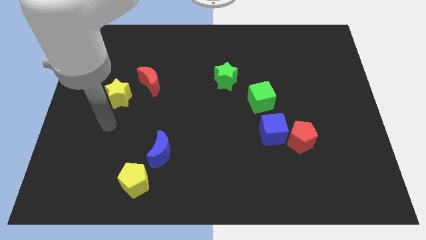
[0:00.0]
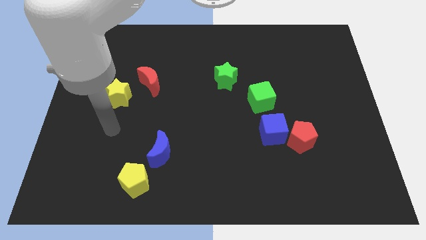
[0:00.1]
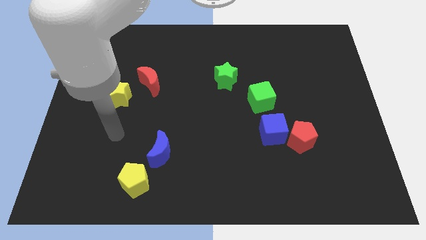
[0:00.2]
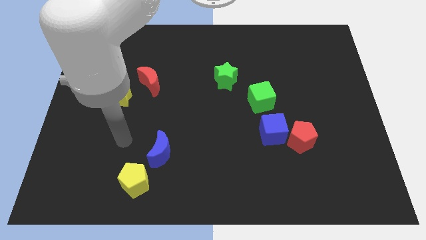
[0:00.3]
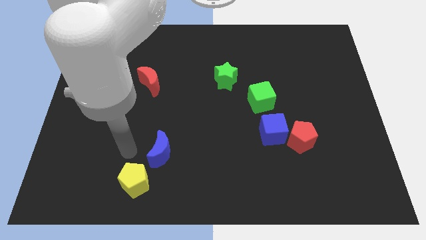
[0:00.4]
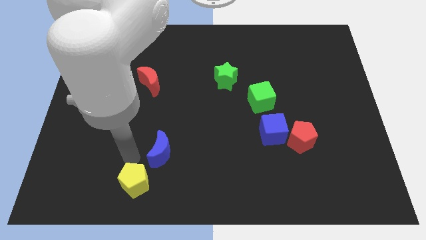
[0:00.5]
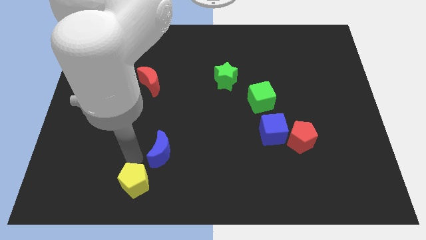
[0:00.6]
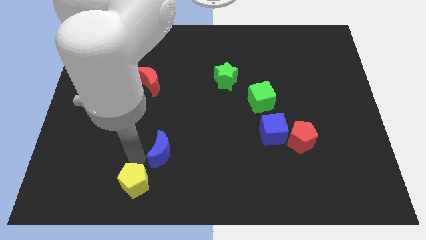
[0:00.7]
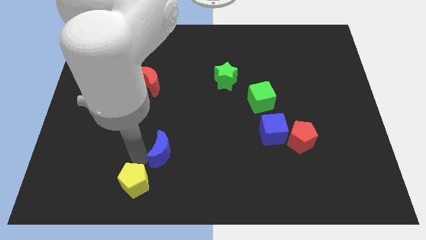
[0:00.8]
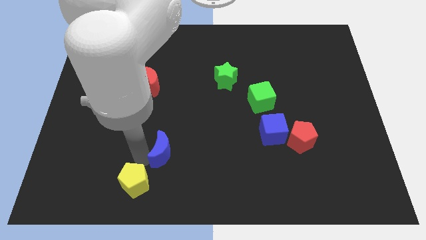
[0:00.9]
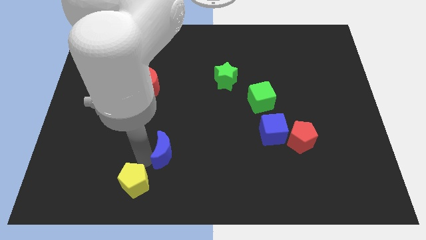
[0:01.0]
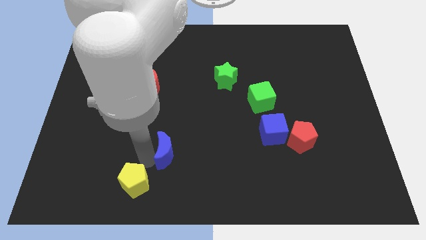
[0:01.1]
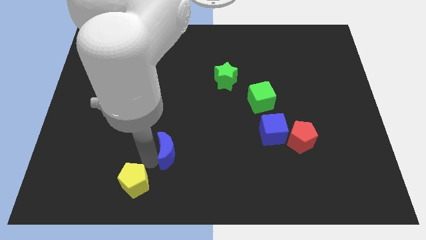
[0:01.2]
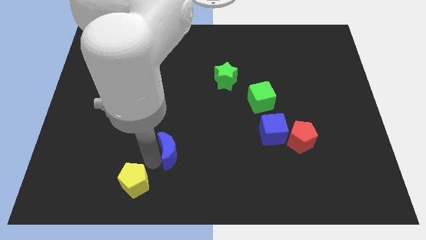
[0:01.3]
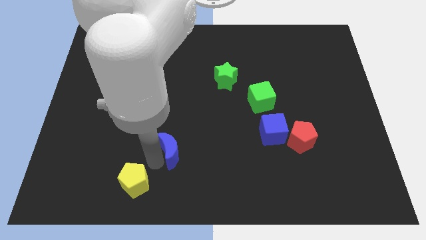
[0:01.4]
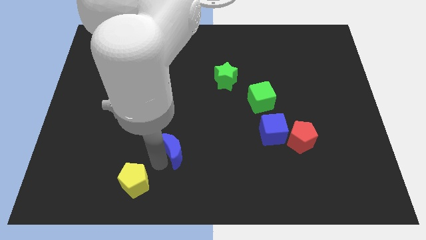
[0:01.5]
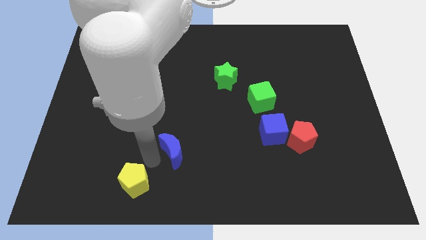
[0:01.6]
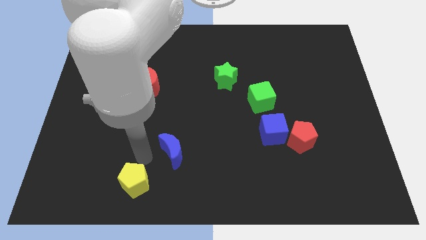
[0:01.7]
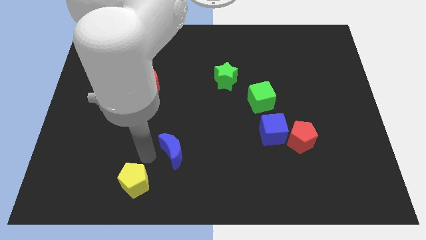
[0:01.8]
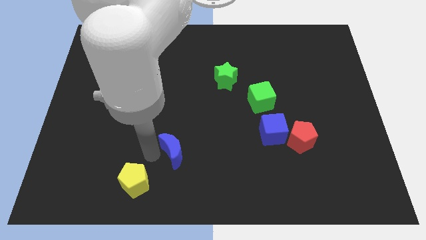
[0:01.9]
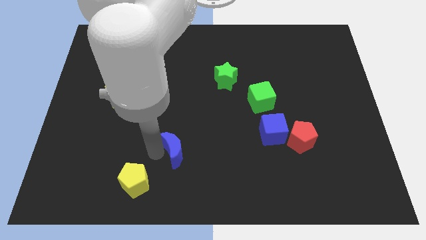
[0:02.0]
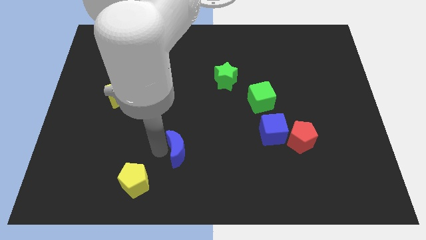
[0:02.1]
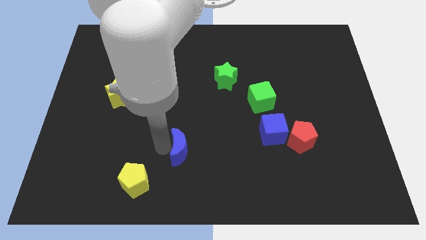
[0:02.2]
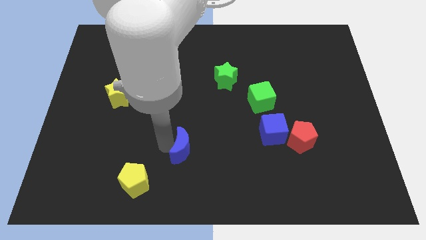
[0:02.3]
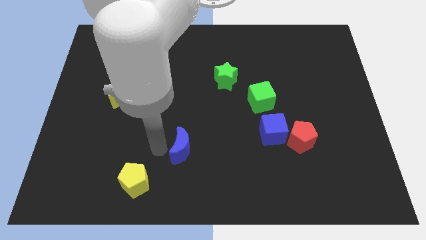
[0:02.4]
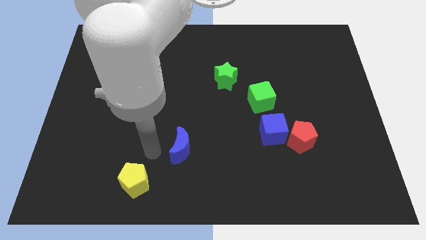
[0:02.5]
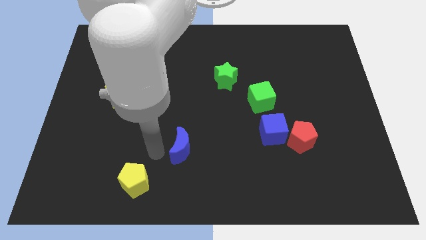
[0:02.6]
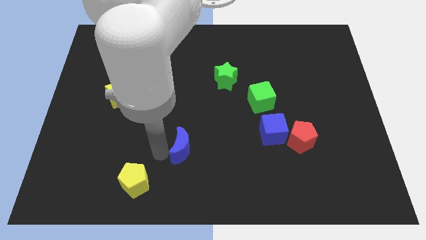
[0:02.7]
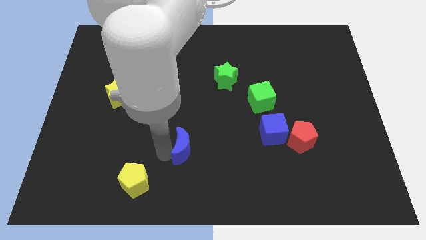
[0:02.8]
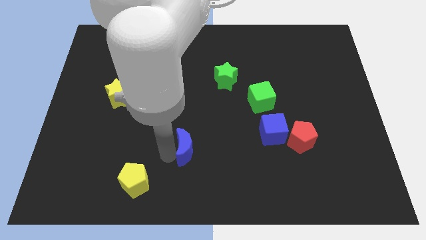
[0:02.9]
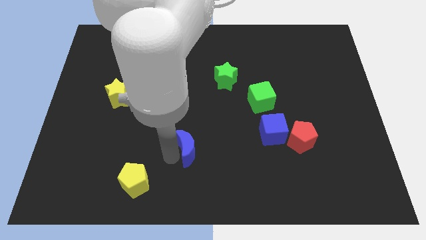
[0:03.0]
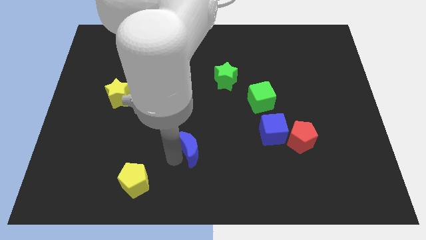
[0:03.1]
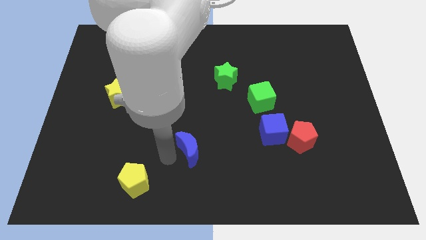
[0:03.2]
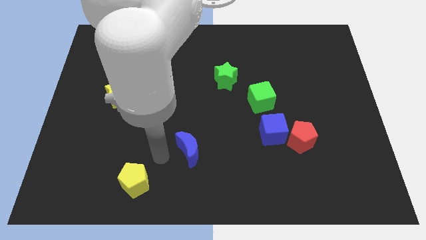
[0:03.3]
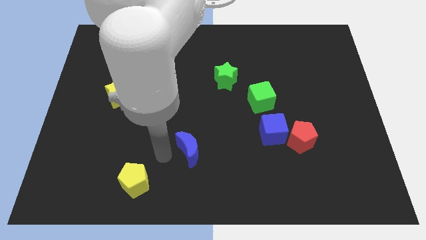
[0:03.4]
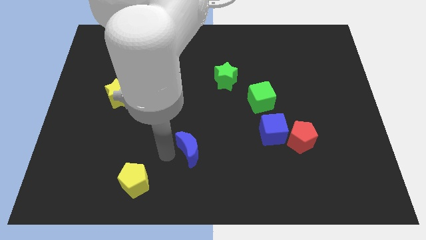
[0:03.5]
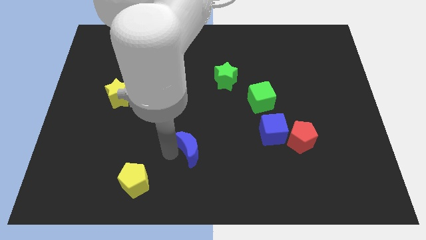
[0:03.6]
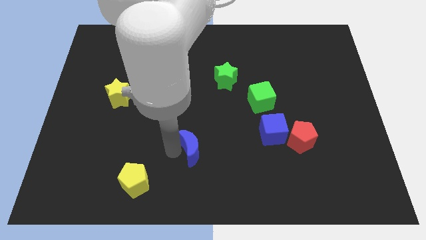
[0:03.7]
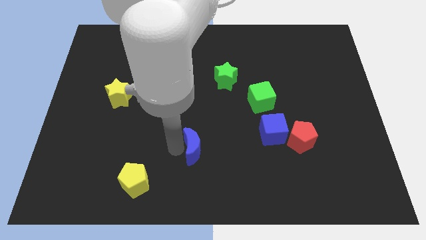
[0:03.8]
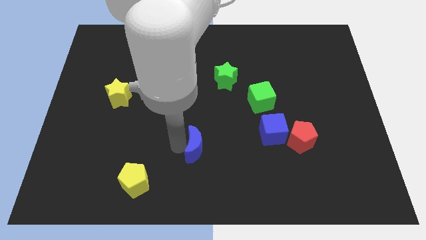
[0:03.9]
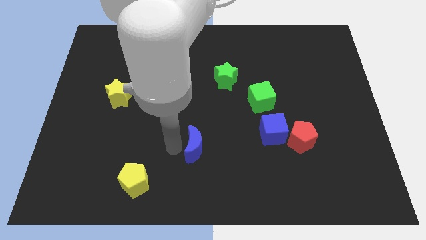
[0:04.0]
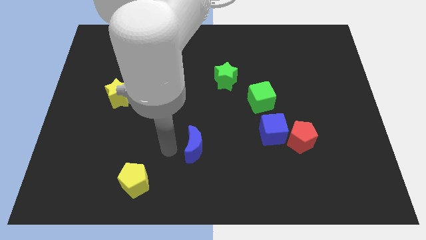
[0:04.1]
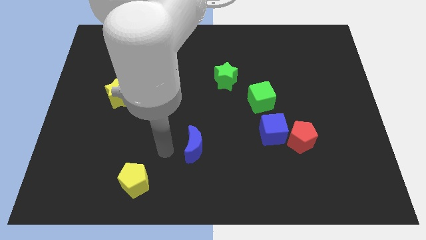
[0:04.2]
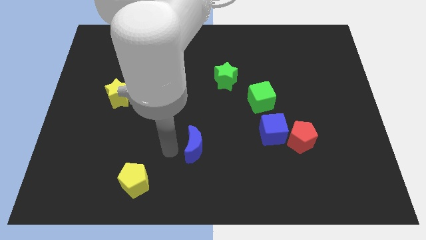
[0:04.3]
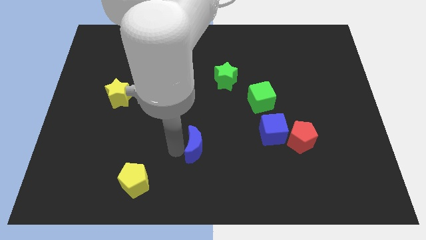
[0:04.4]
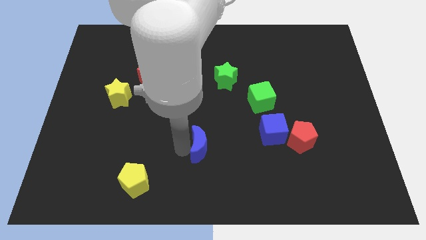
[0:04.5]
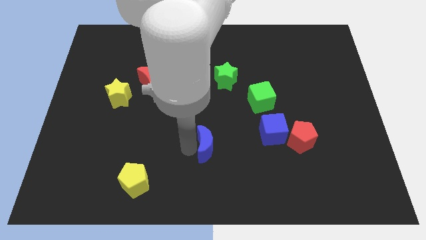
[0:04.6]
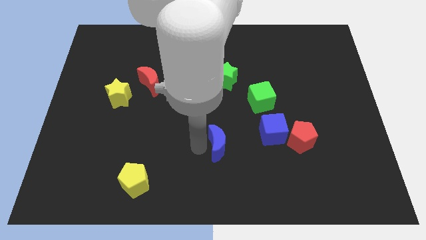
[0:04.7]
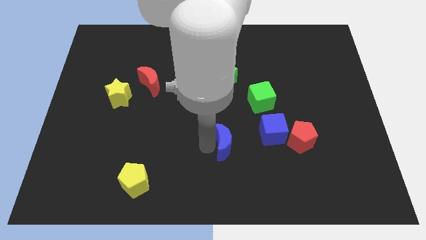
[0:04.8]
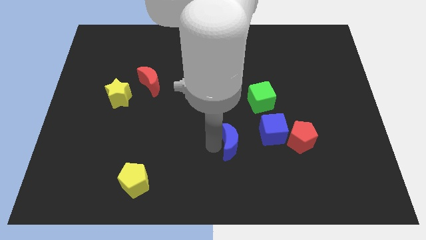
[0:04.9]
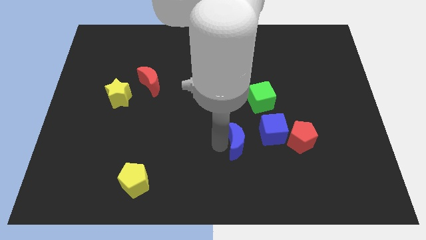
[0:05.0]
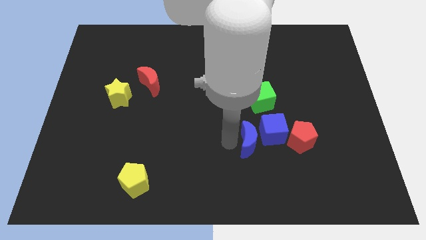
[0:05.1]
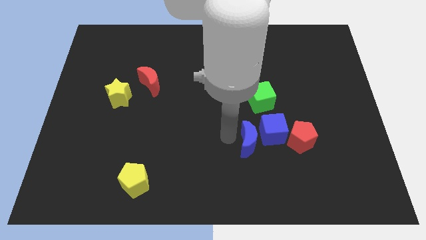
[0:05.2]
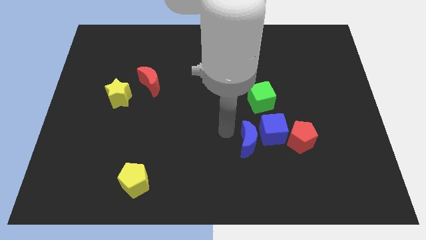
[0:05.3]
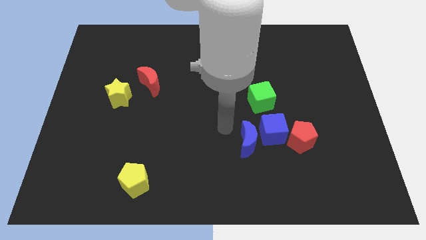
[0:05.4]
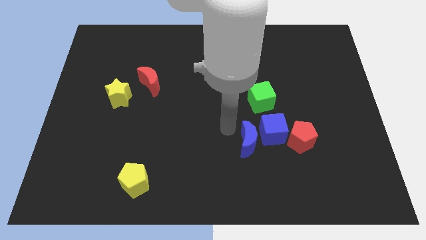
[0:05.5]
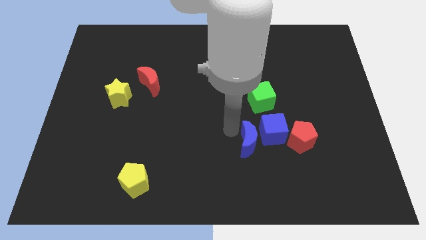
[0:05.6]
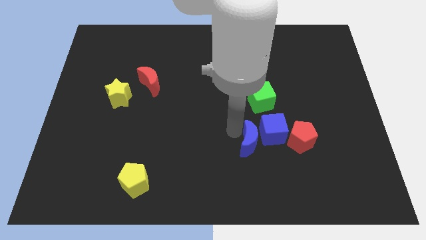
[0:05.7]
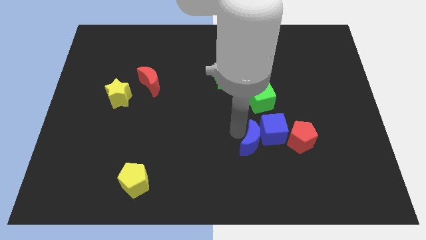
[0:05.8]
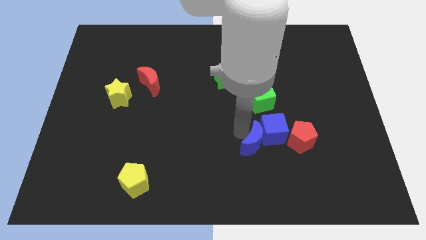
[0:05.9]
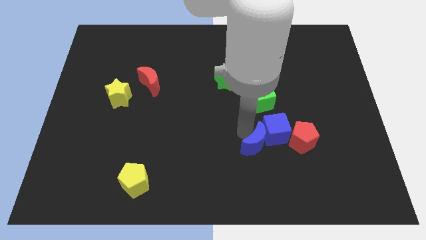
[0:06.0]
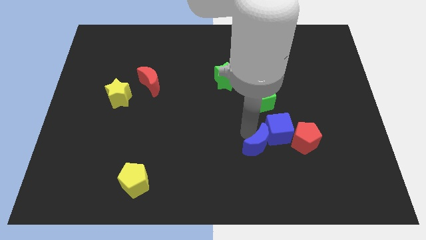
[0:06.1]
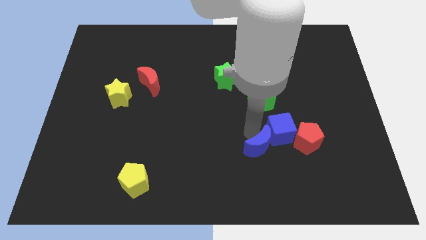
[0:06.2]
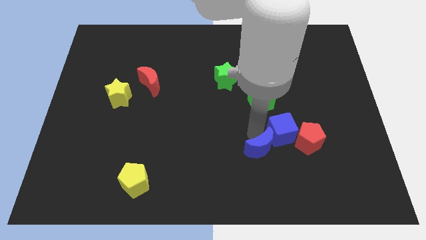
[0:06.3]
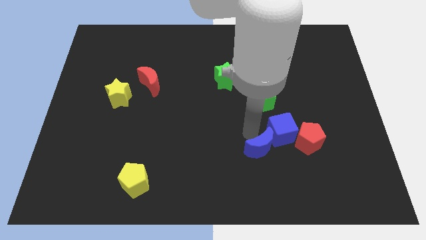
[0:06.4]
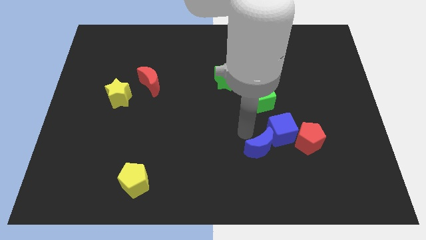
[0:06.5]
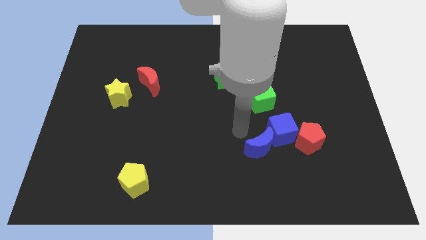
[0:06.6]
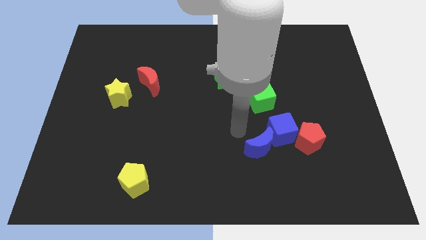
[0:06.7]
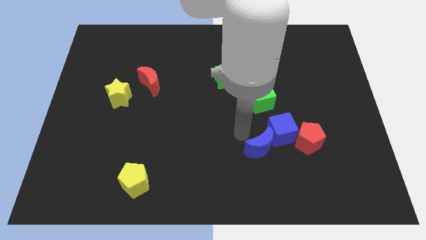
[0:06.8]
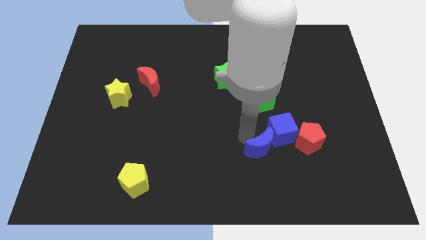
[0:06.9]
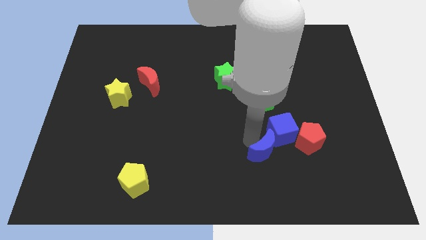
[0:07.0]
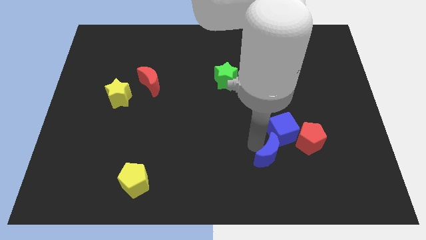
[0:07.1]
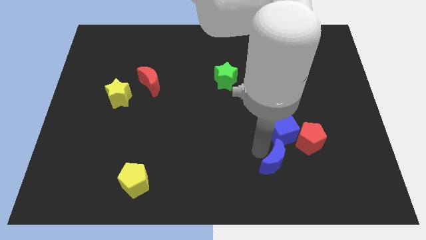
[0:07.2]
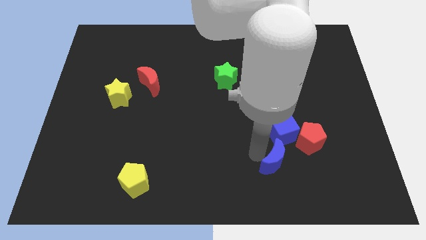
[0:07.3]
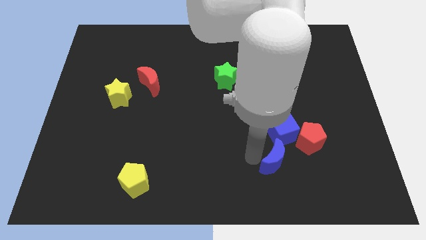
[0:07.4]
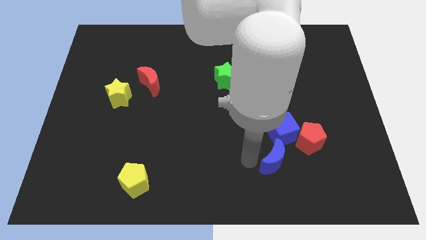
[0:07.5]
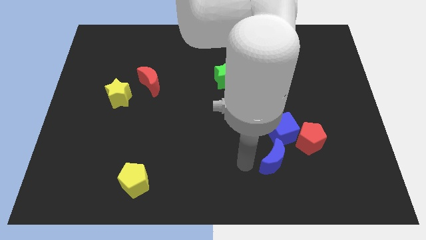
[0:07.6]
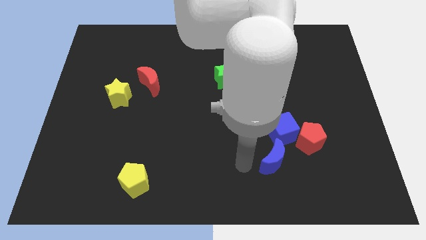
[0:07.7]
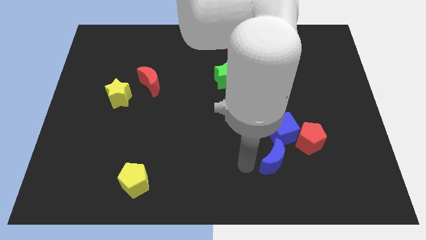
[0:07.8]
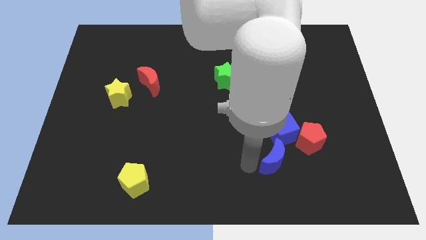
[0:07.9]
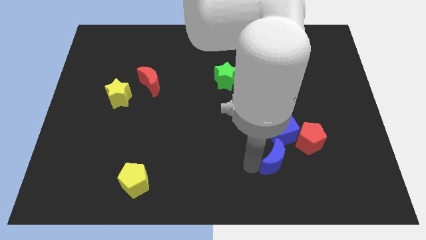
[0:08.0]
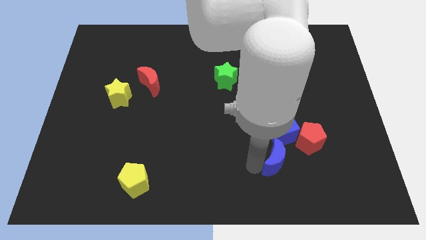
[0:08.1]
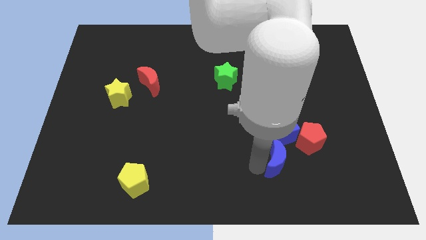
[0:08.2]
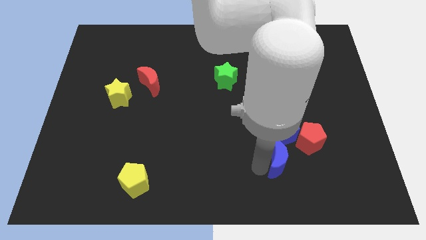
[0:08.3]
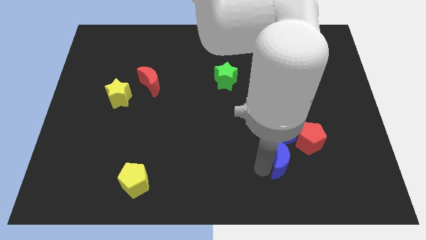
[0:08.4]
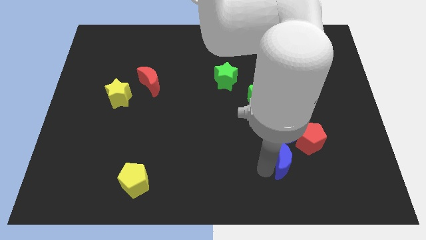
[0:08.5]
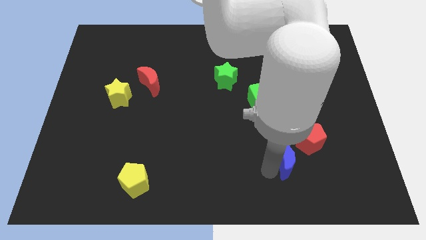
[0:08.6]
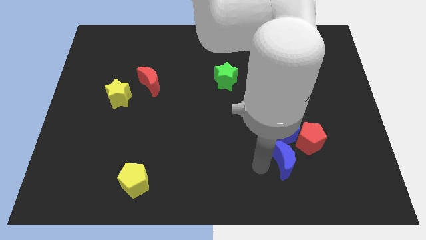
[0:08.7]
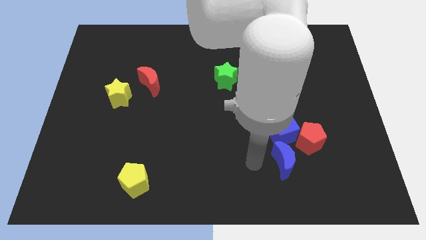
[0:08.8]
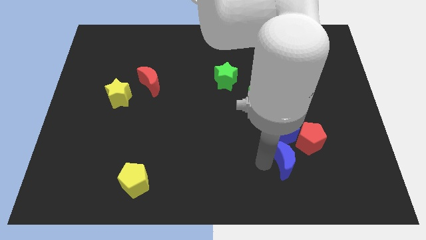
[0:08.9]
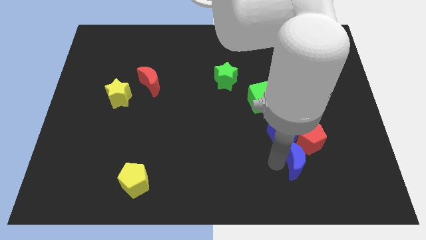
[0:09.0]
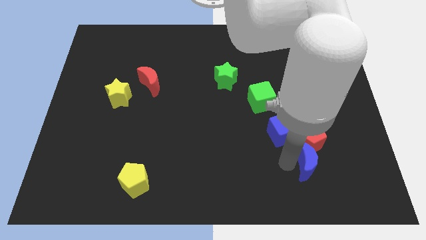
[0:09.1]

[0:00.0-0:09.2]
slide the blue moon to the bottom right of the red pentagon
